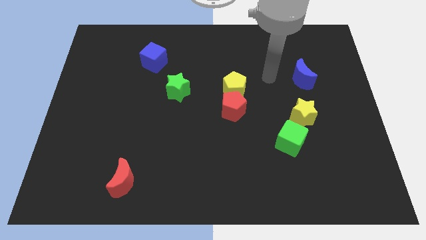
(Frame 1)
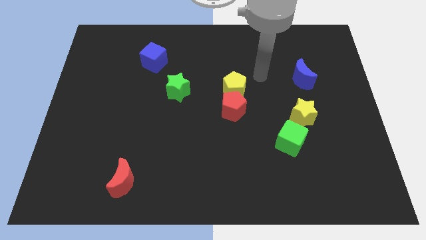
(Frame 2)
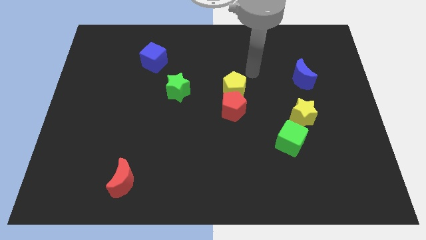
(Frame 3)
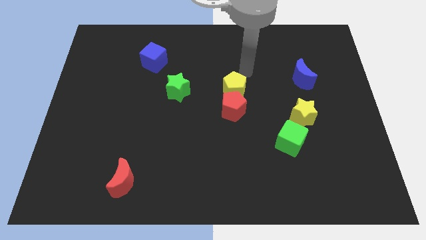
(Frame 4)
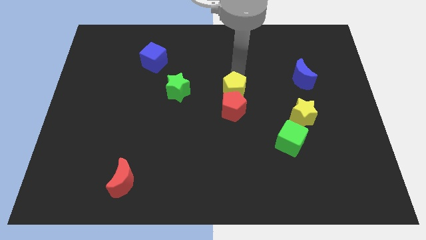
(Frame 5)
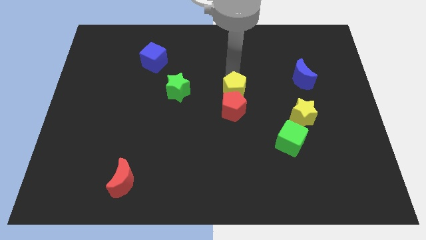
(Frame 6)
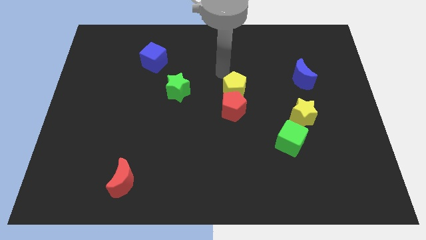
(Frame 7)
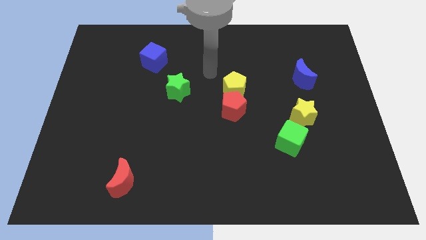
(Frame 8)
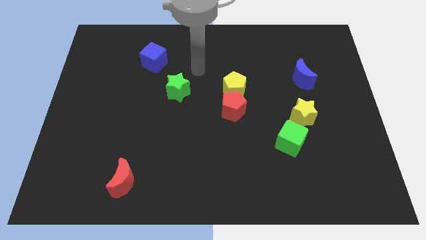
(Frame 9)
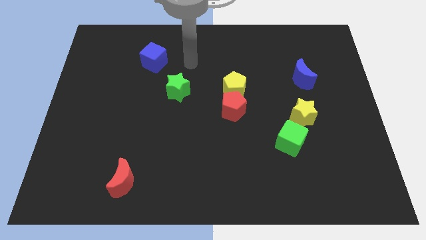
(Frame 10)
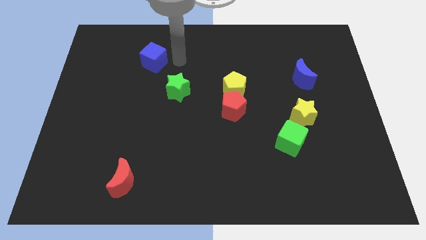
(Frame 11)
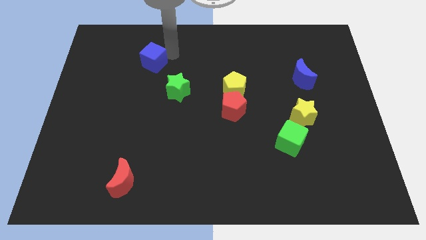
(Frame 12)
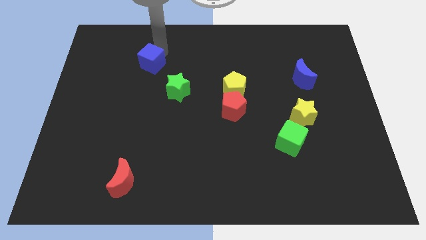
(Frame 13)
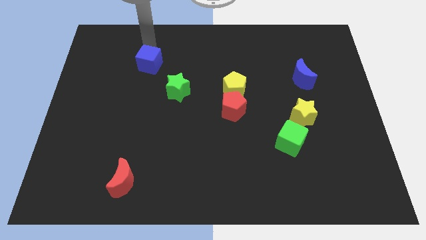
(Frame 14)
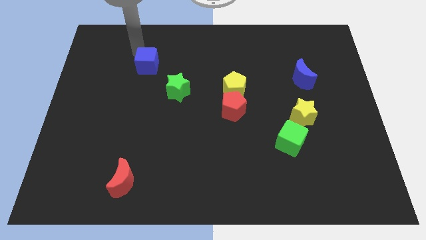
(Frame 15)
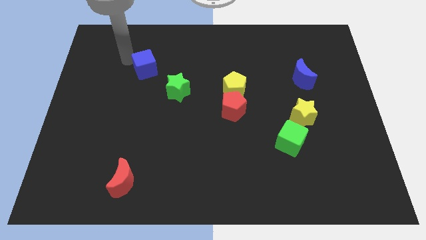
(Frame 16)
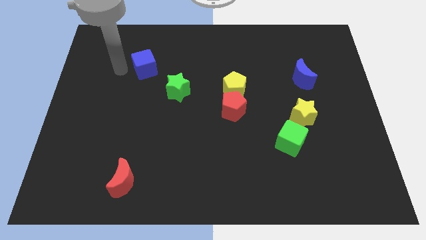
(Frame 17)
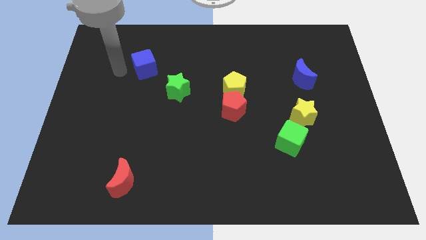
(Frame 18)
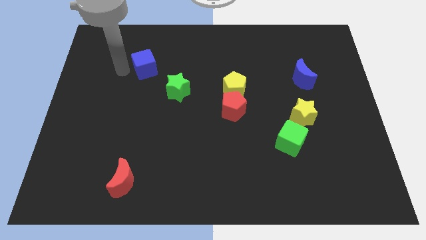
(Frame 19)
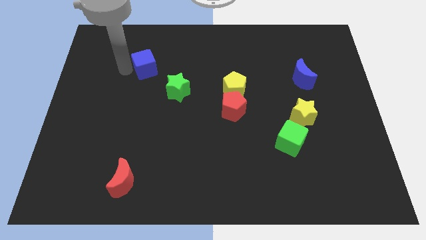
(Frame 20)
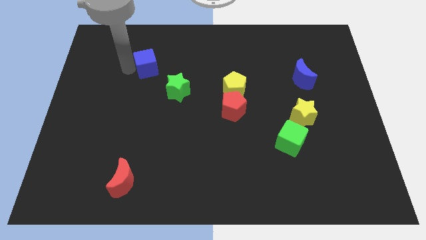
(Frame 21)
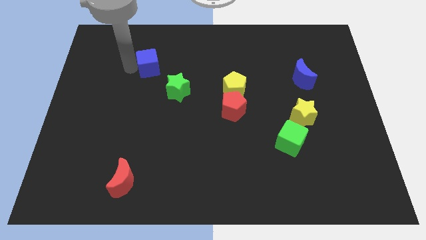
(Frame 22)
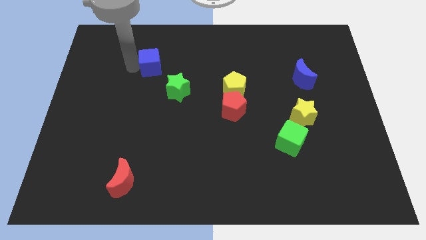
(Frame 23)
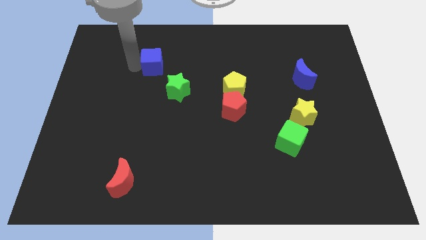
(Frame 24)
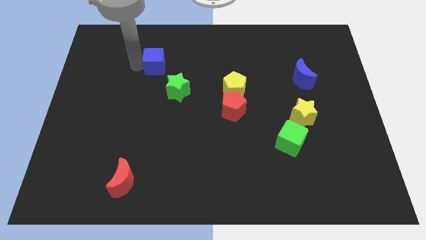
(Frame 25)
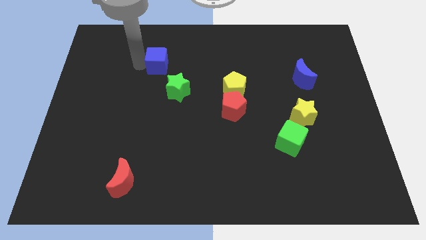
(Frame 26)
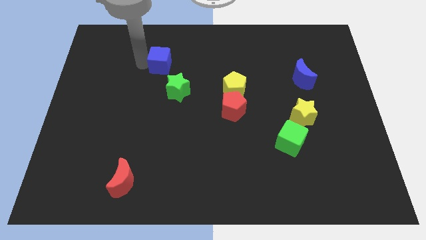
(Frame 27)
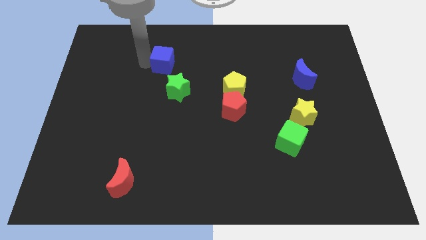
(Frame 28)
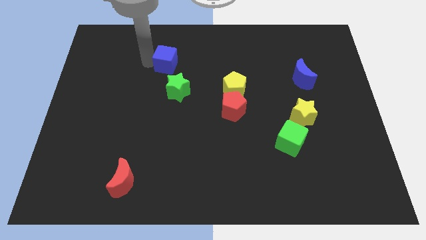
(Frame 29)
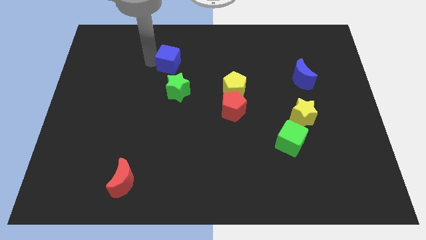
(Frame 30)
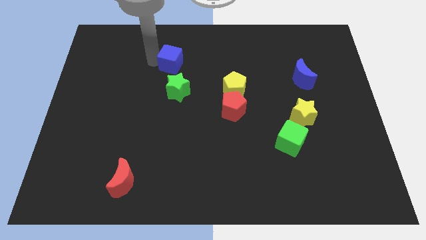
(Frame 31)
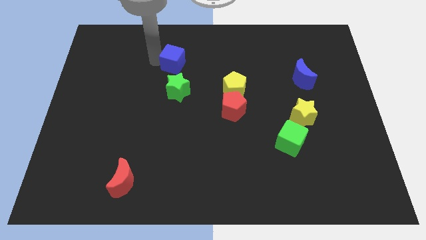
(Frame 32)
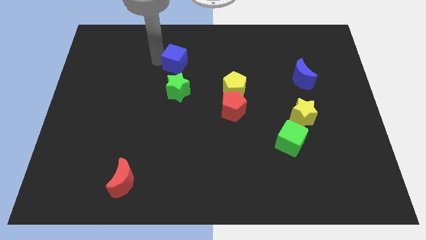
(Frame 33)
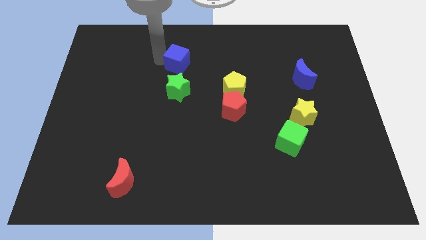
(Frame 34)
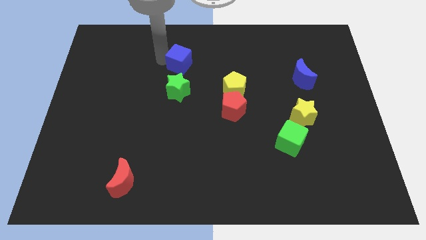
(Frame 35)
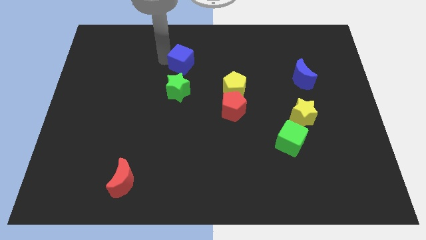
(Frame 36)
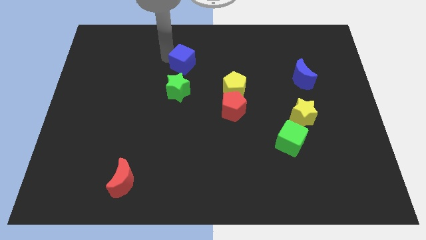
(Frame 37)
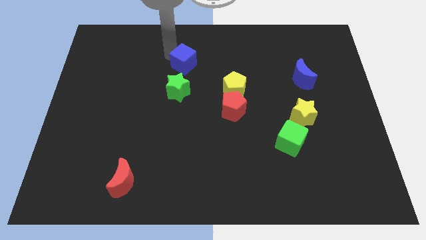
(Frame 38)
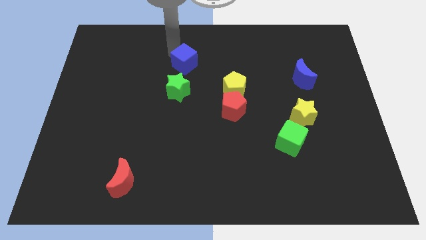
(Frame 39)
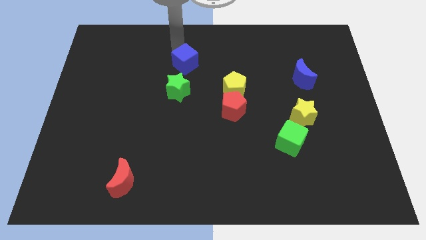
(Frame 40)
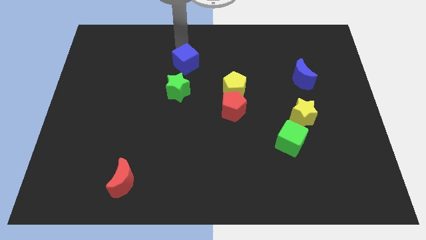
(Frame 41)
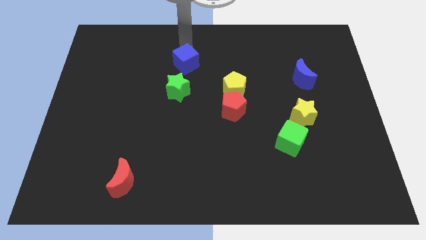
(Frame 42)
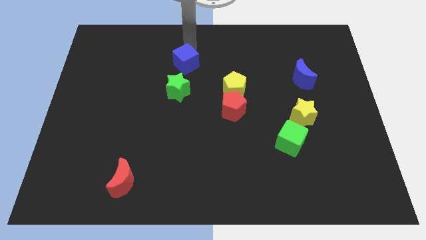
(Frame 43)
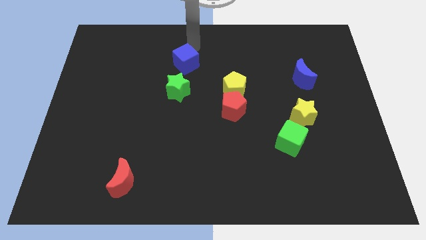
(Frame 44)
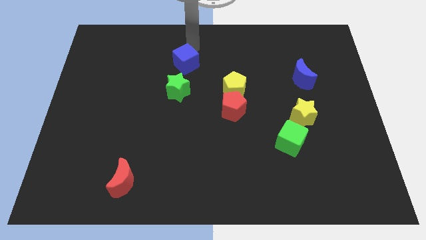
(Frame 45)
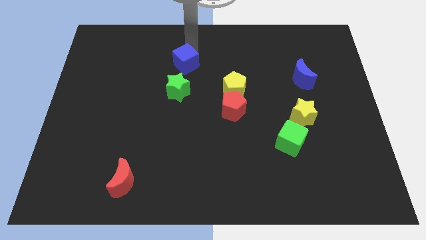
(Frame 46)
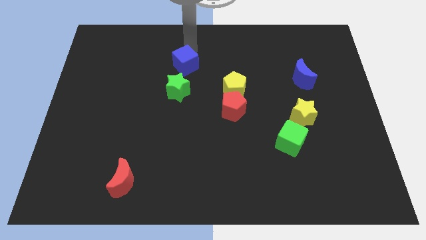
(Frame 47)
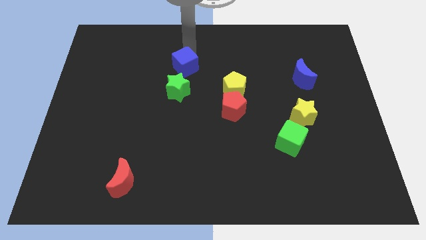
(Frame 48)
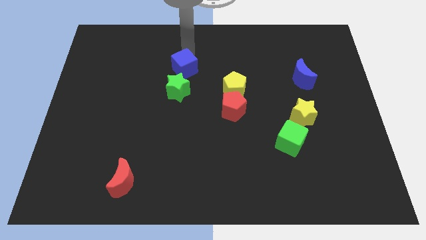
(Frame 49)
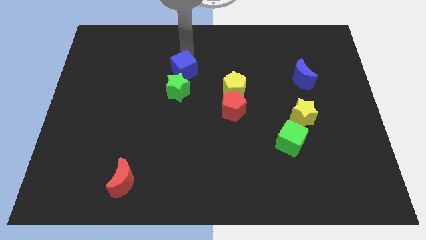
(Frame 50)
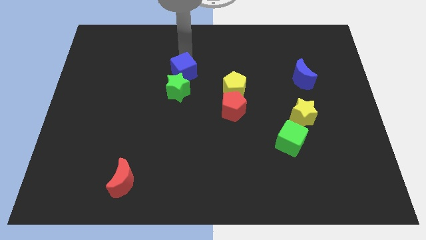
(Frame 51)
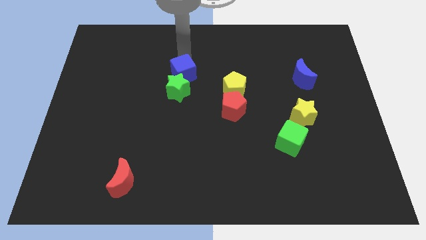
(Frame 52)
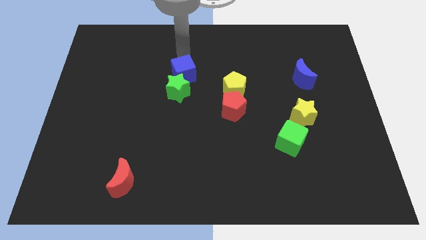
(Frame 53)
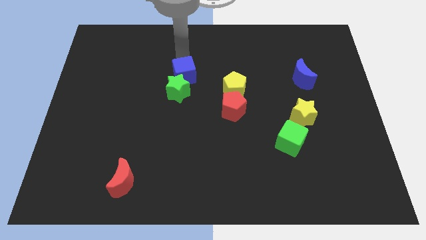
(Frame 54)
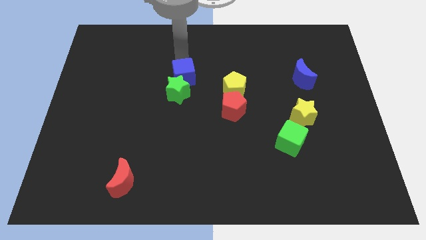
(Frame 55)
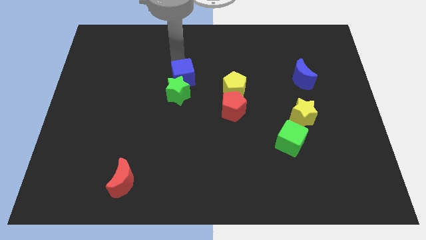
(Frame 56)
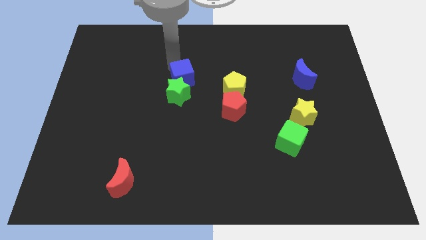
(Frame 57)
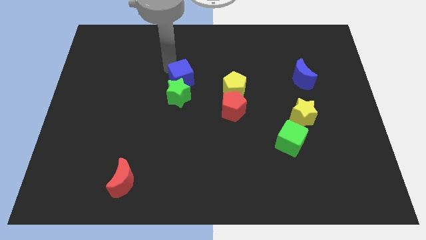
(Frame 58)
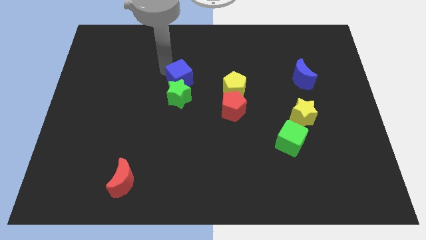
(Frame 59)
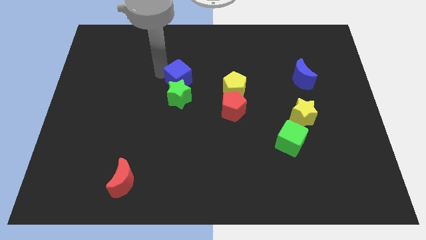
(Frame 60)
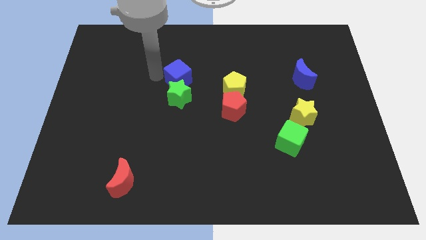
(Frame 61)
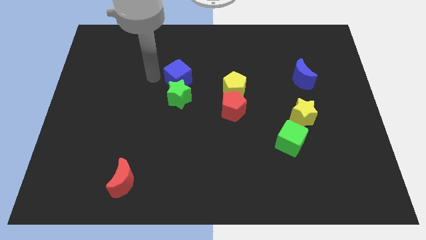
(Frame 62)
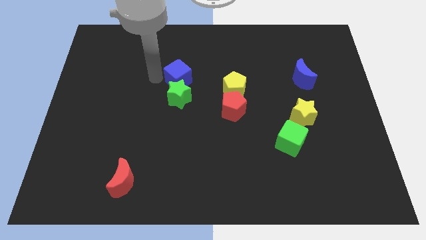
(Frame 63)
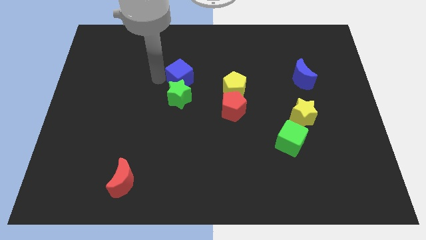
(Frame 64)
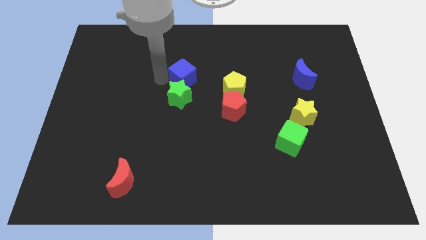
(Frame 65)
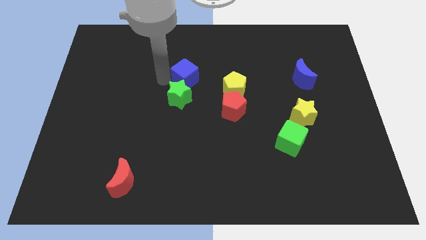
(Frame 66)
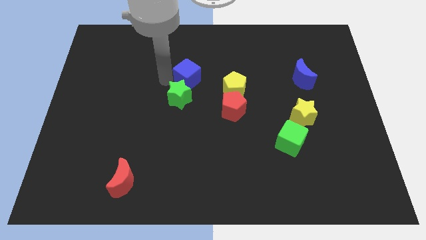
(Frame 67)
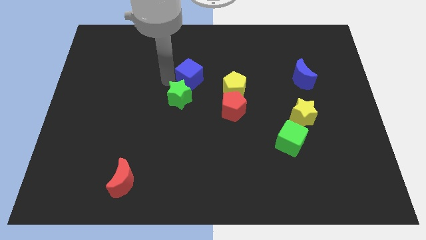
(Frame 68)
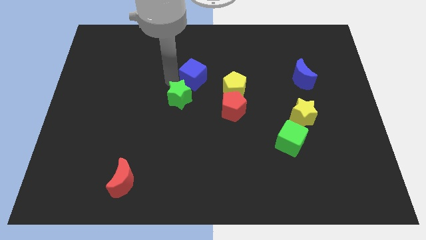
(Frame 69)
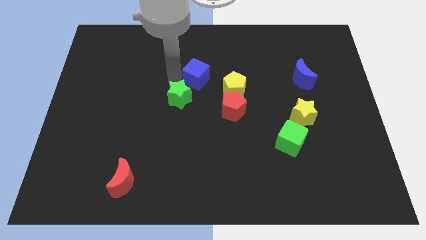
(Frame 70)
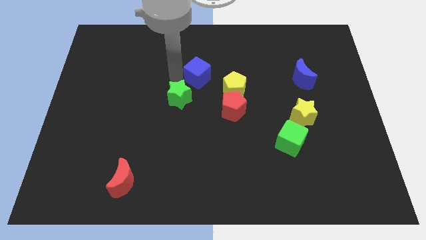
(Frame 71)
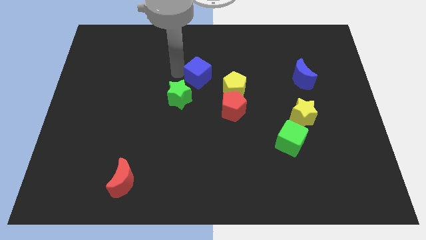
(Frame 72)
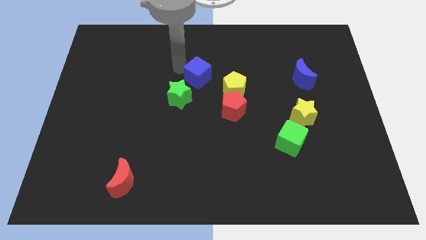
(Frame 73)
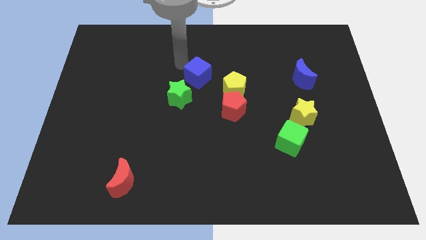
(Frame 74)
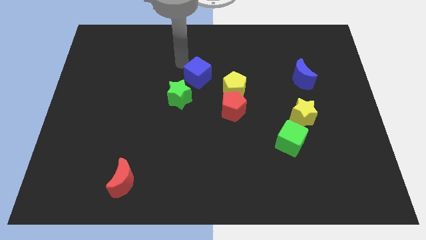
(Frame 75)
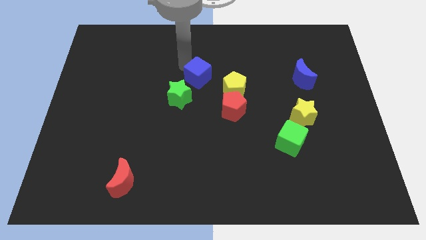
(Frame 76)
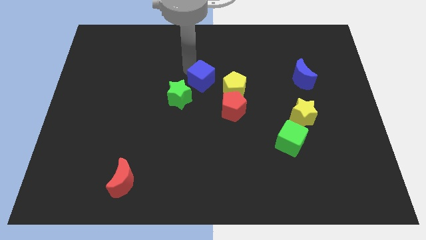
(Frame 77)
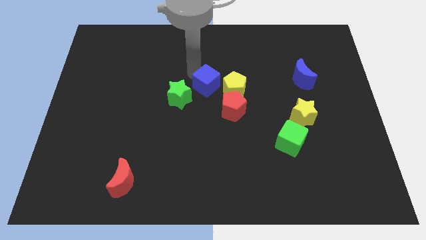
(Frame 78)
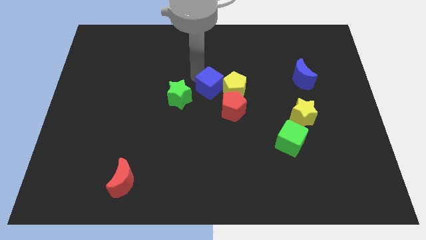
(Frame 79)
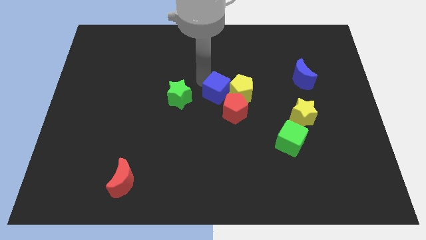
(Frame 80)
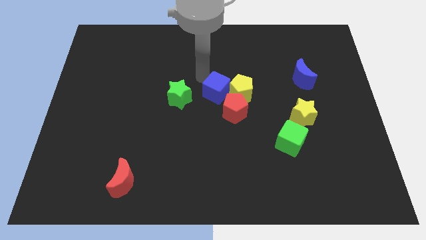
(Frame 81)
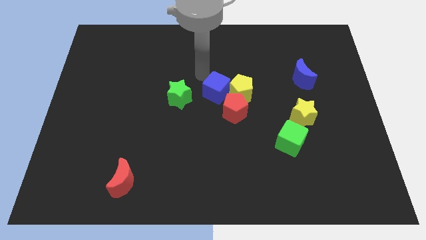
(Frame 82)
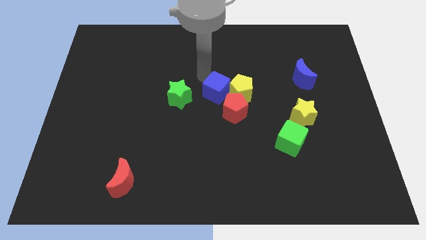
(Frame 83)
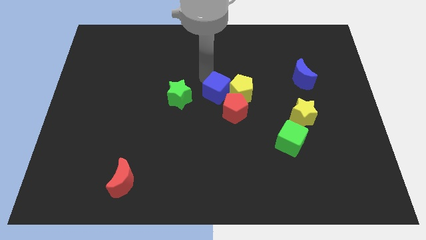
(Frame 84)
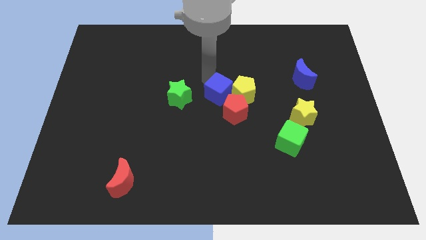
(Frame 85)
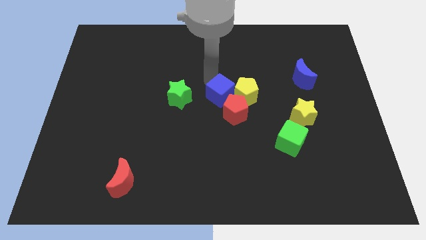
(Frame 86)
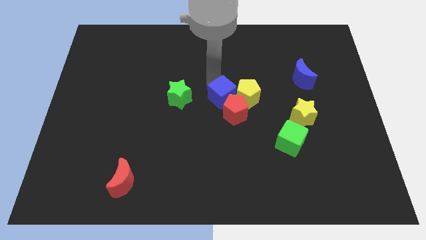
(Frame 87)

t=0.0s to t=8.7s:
move the blue cube next to the red pentagon
